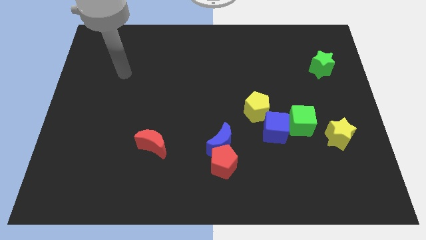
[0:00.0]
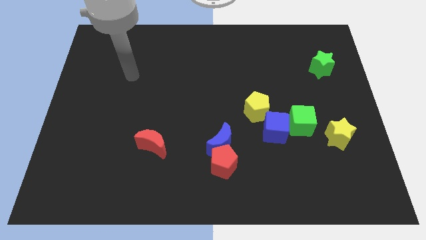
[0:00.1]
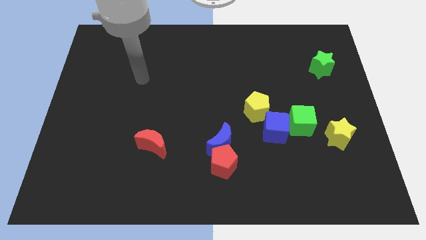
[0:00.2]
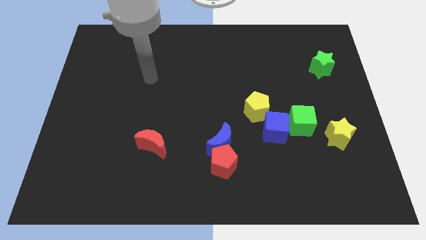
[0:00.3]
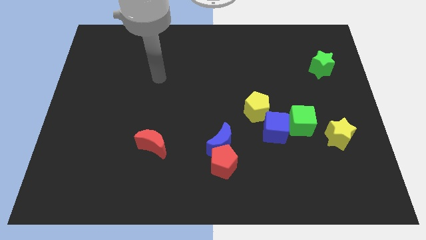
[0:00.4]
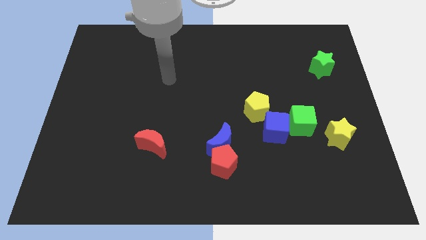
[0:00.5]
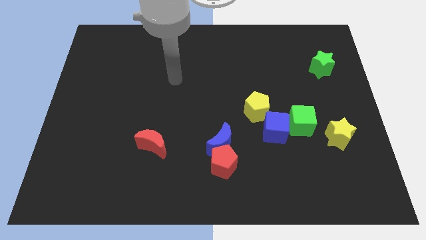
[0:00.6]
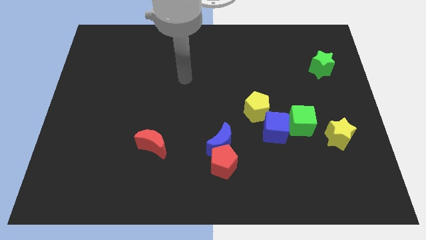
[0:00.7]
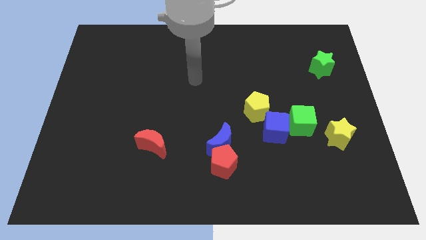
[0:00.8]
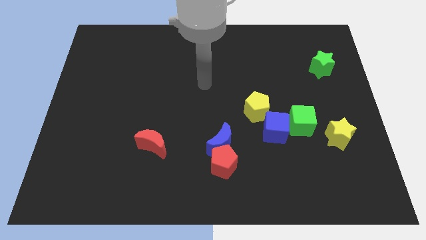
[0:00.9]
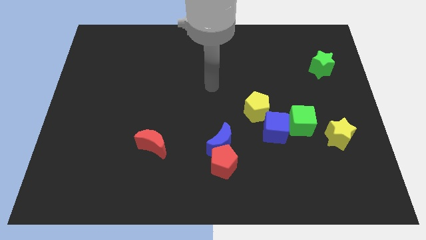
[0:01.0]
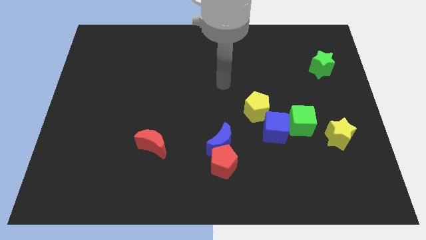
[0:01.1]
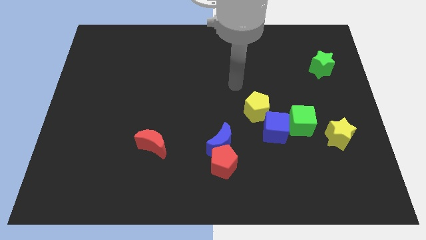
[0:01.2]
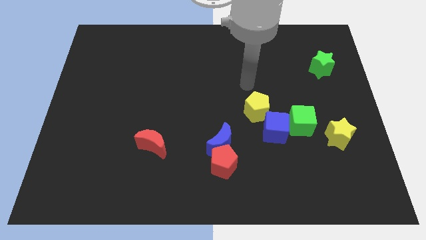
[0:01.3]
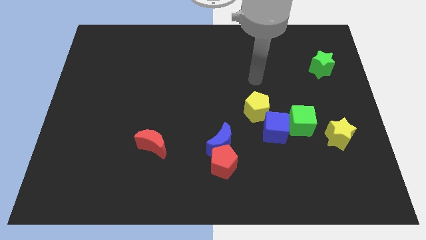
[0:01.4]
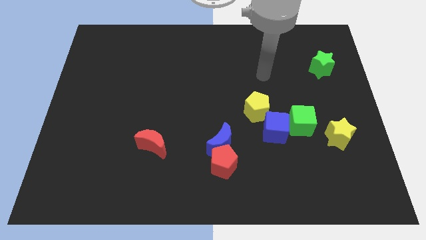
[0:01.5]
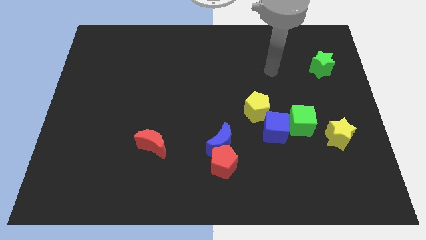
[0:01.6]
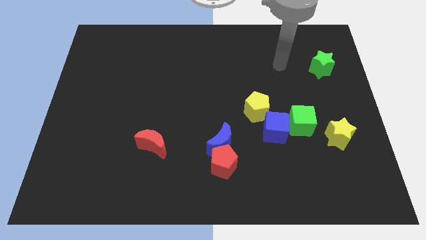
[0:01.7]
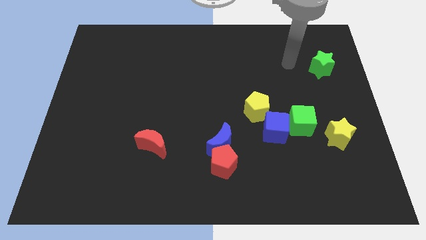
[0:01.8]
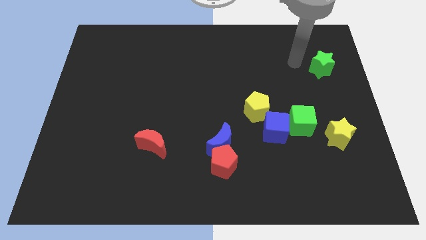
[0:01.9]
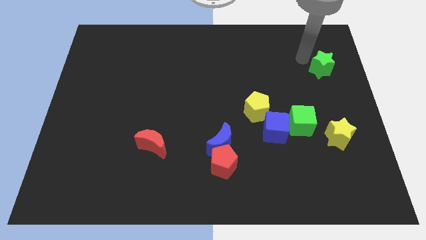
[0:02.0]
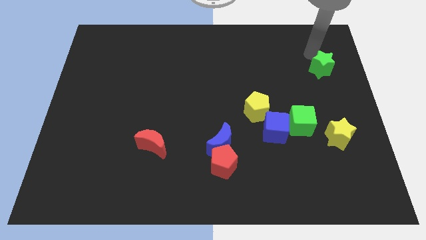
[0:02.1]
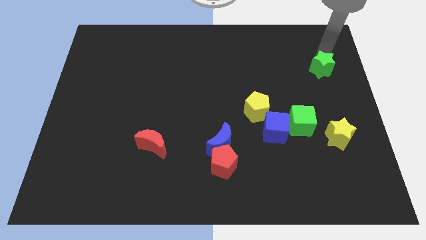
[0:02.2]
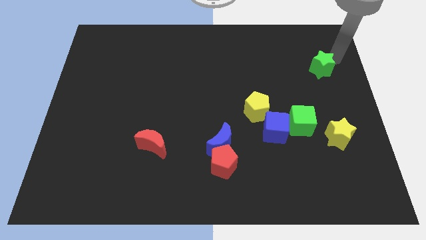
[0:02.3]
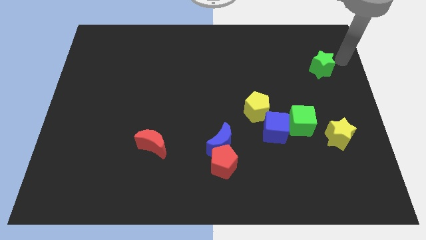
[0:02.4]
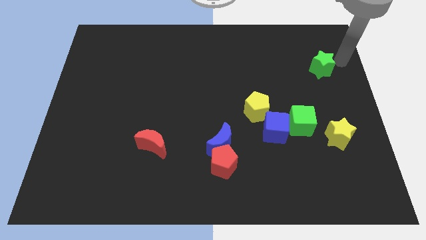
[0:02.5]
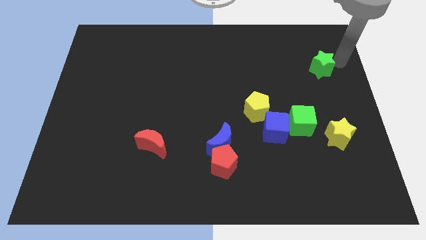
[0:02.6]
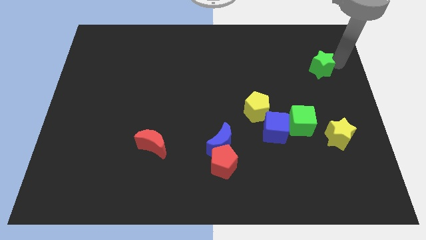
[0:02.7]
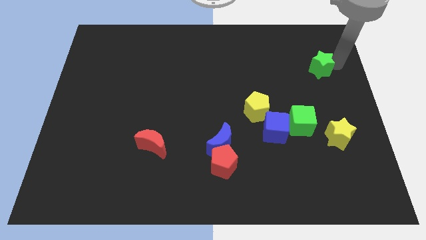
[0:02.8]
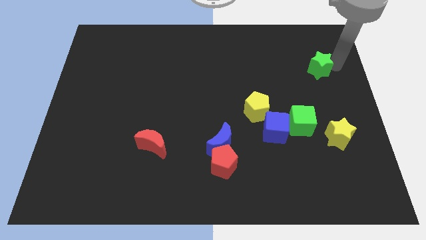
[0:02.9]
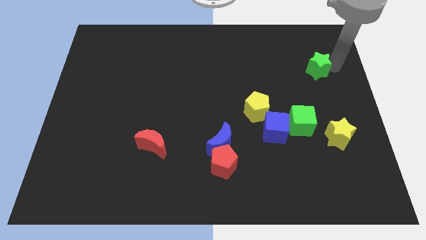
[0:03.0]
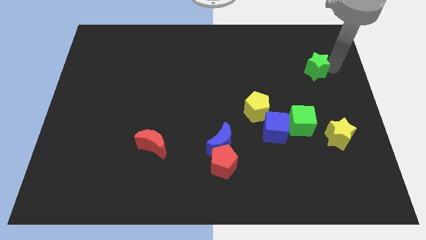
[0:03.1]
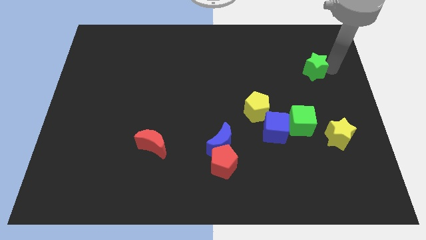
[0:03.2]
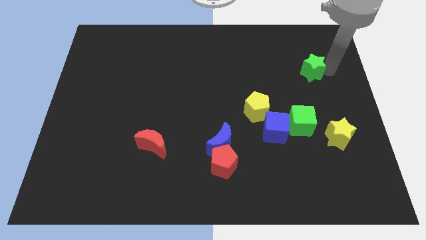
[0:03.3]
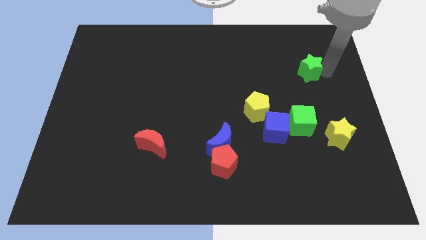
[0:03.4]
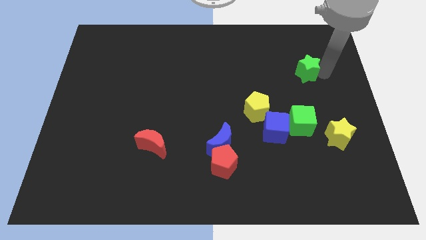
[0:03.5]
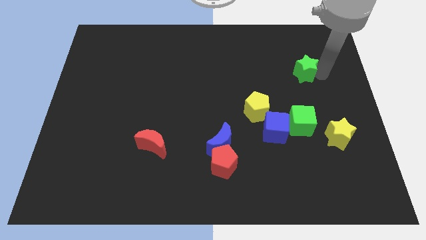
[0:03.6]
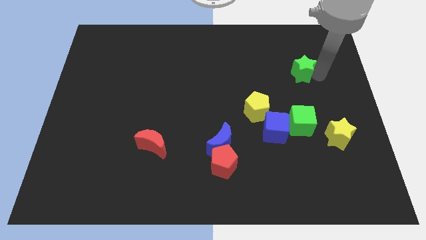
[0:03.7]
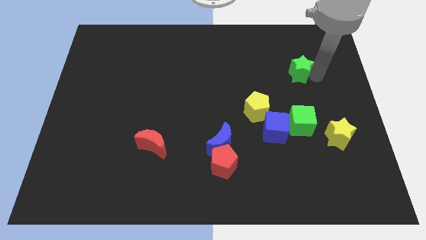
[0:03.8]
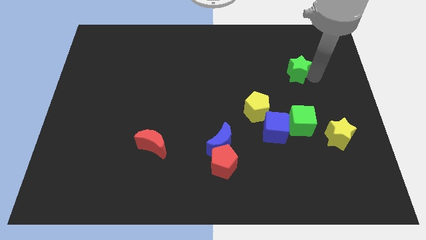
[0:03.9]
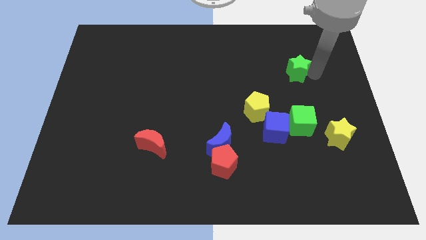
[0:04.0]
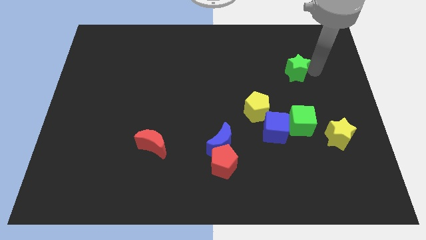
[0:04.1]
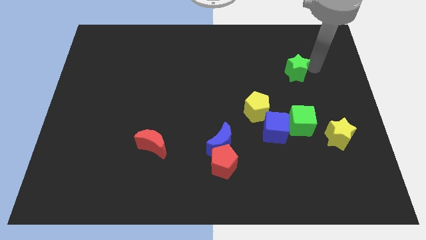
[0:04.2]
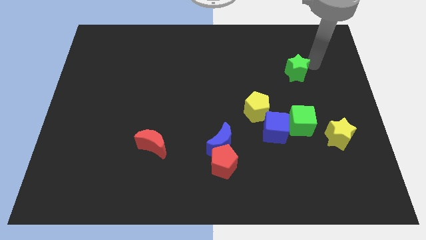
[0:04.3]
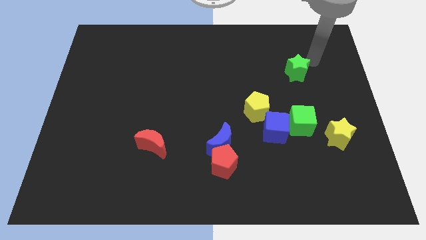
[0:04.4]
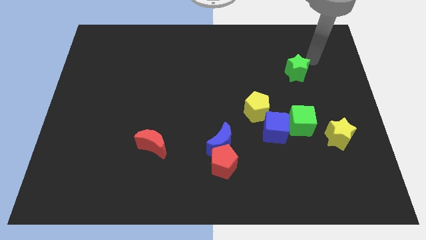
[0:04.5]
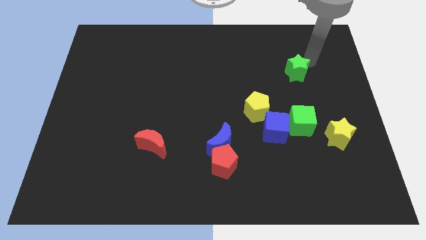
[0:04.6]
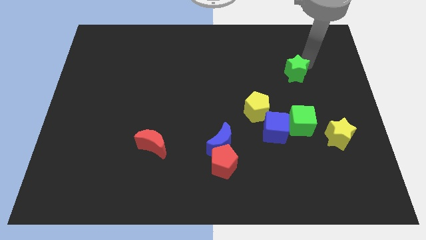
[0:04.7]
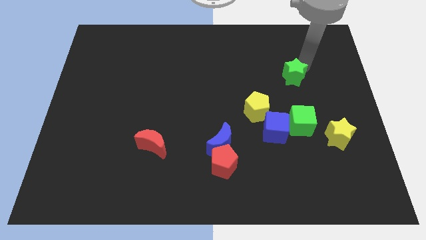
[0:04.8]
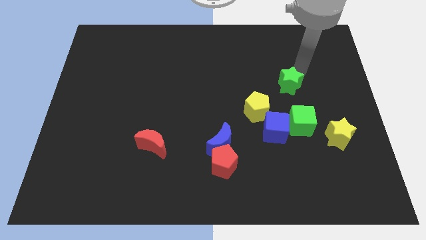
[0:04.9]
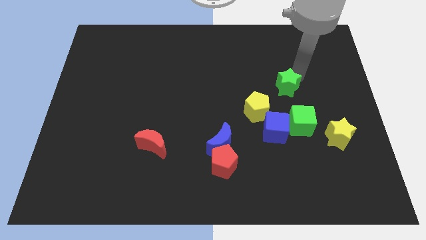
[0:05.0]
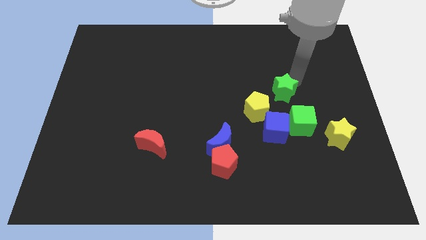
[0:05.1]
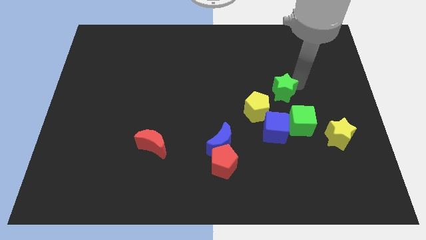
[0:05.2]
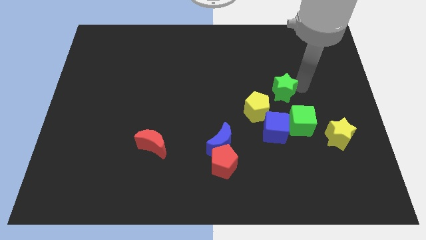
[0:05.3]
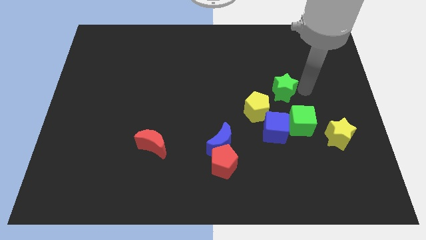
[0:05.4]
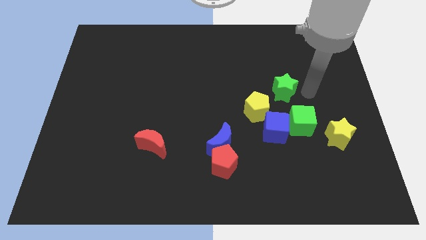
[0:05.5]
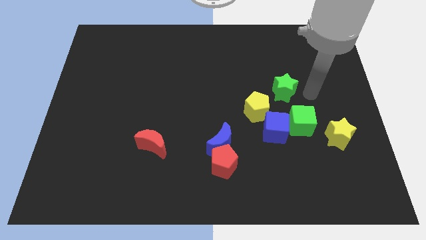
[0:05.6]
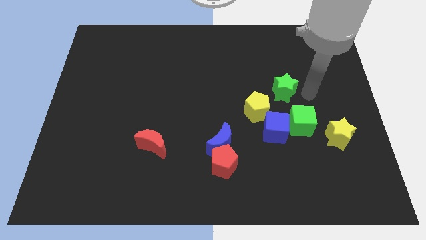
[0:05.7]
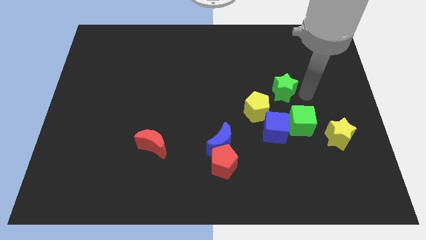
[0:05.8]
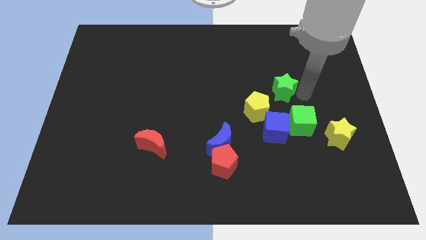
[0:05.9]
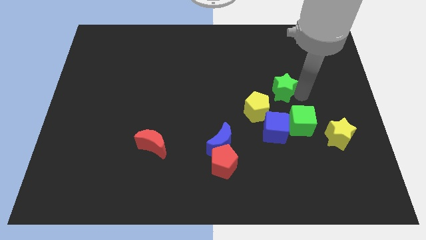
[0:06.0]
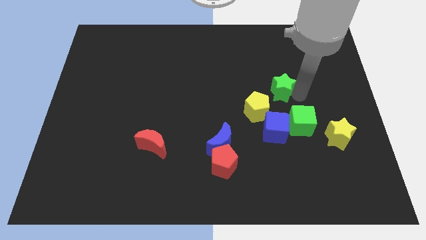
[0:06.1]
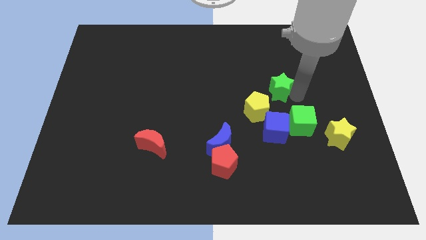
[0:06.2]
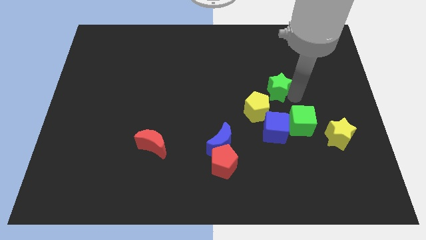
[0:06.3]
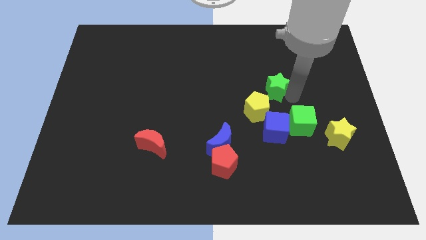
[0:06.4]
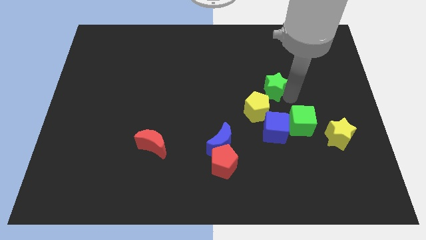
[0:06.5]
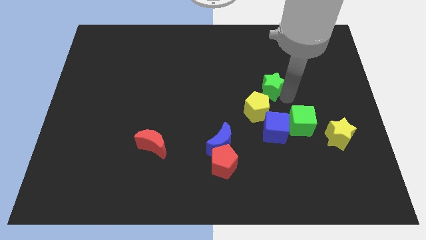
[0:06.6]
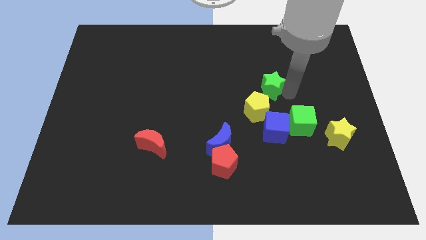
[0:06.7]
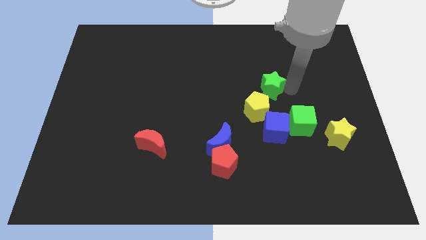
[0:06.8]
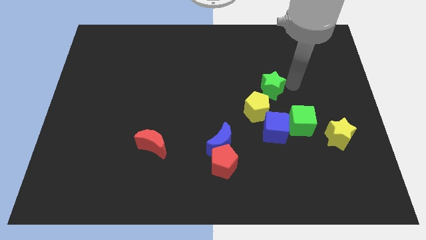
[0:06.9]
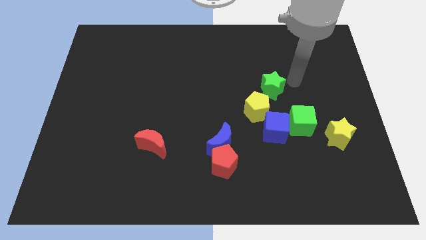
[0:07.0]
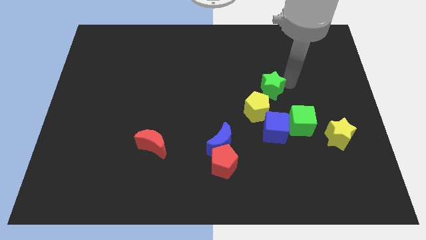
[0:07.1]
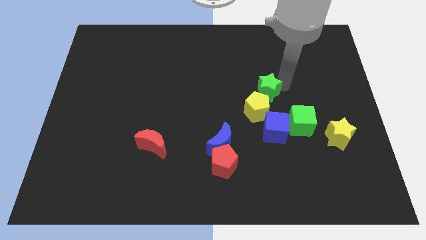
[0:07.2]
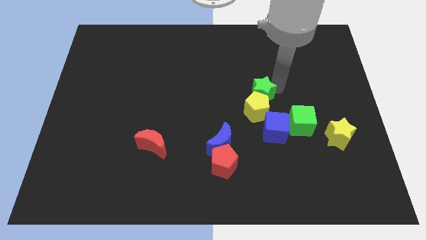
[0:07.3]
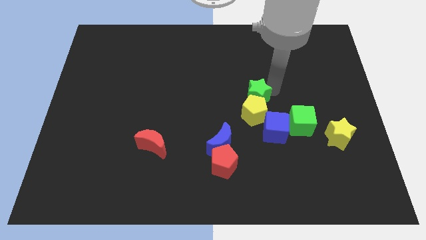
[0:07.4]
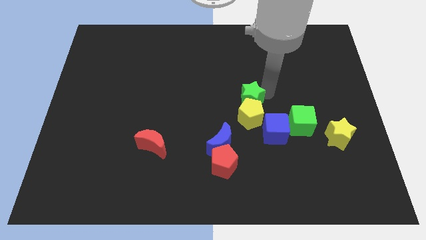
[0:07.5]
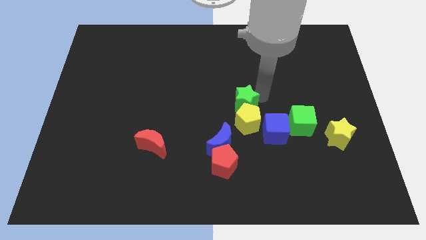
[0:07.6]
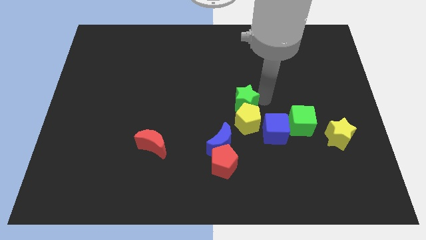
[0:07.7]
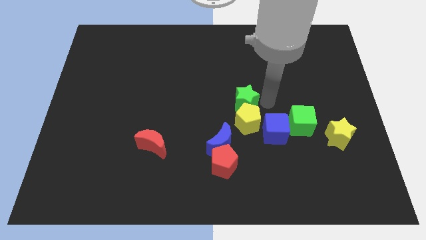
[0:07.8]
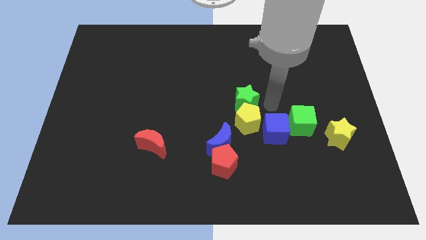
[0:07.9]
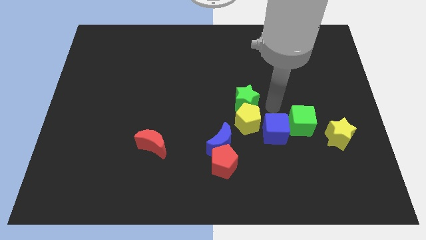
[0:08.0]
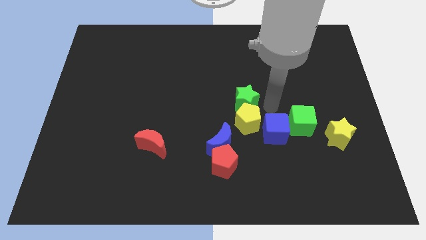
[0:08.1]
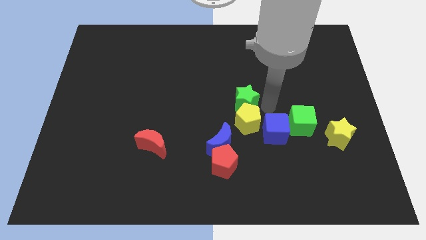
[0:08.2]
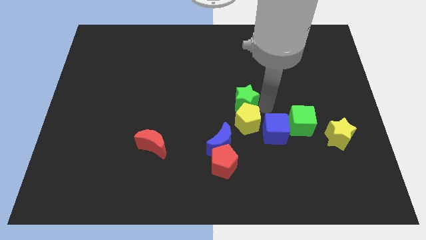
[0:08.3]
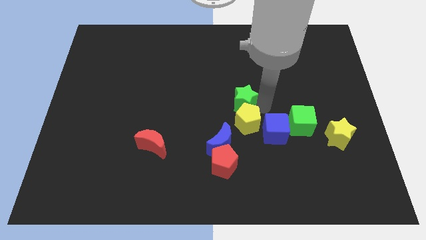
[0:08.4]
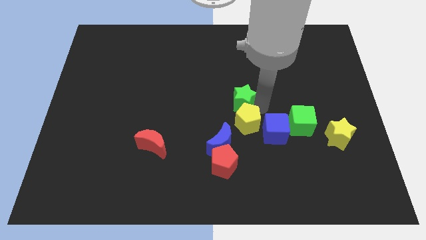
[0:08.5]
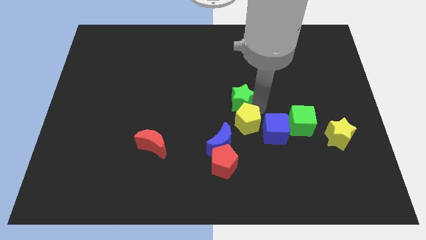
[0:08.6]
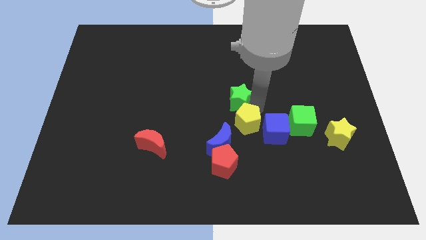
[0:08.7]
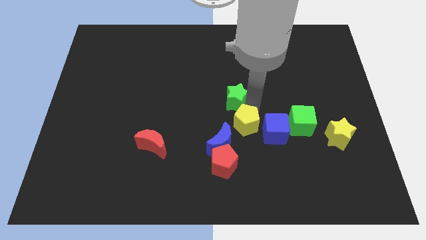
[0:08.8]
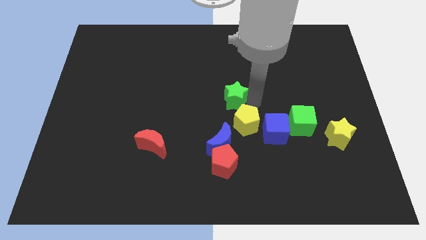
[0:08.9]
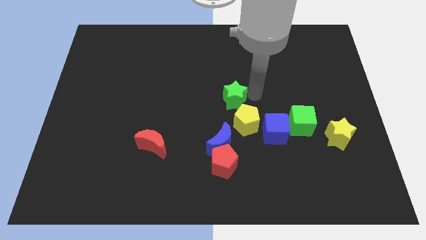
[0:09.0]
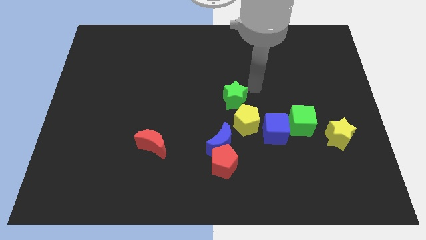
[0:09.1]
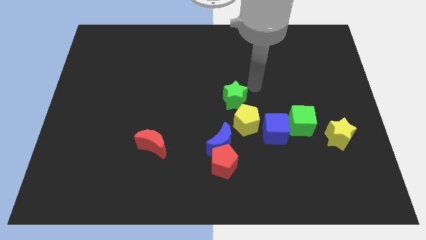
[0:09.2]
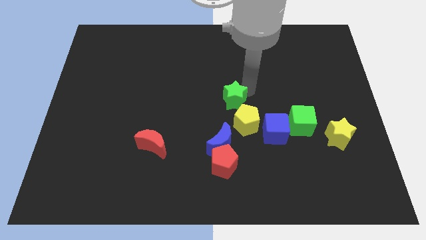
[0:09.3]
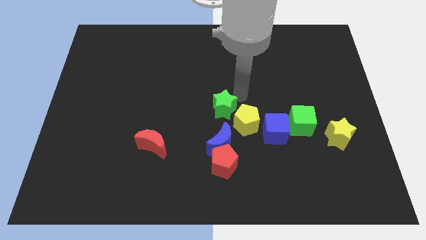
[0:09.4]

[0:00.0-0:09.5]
slide the green star to the left of the yellow pentagon
